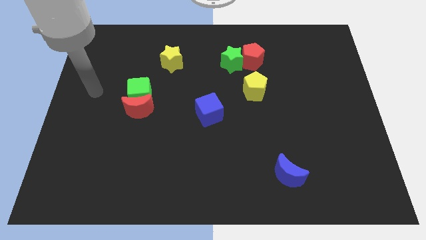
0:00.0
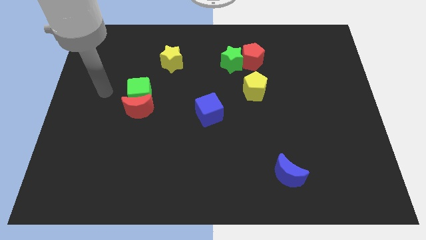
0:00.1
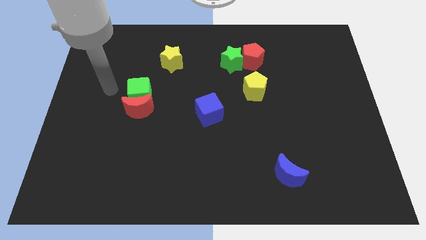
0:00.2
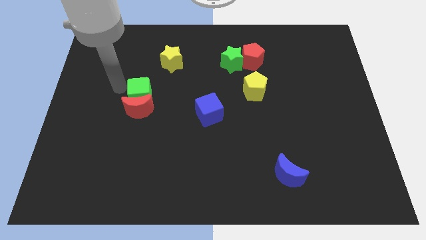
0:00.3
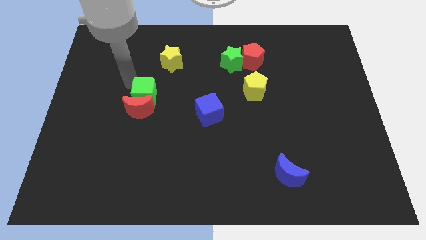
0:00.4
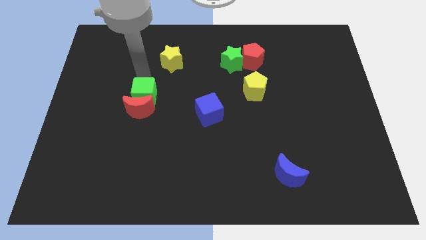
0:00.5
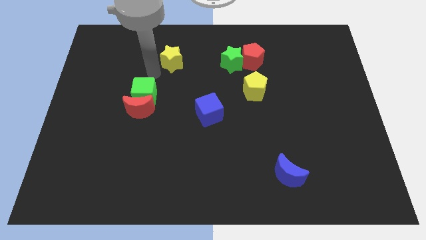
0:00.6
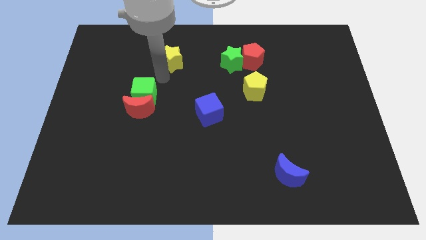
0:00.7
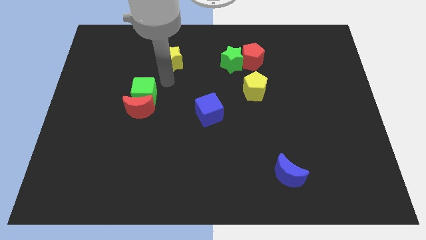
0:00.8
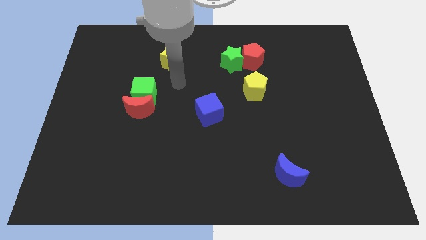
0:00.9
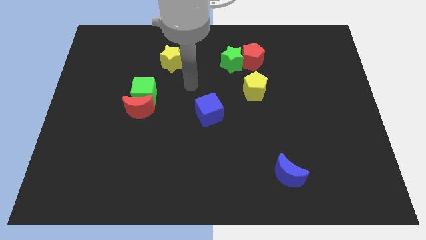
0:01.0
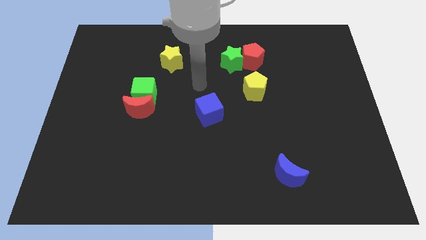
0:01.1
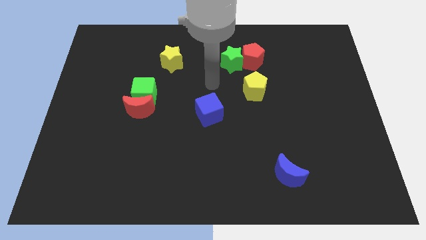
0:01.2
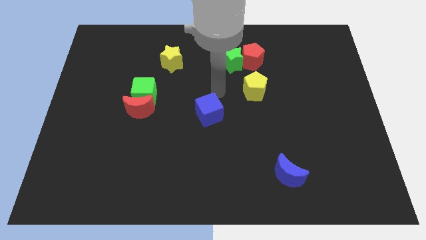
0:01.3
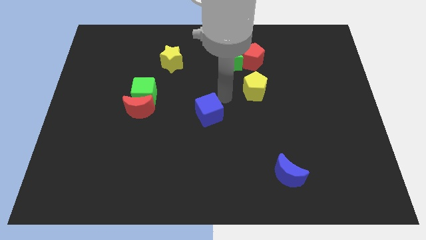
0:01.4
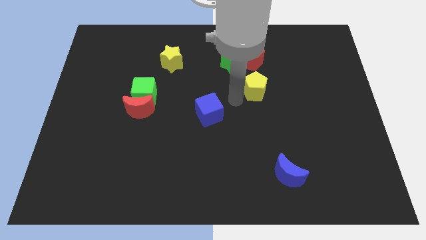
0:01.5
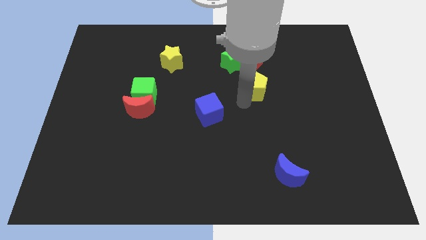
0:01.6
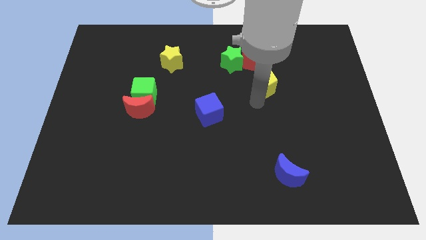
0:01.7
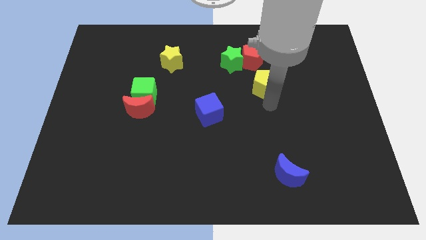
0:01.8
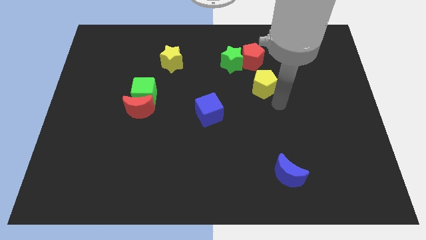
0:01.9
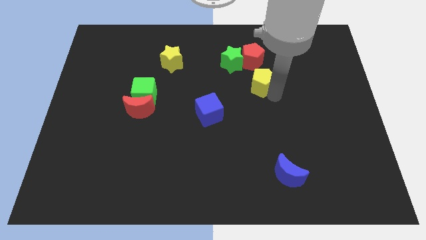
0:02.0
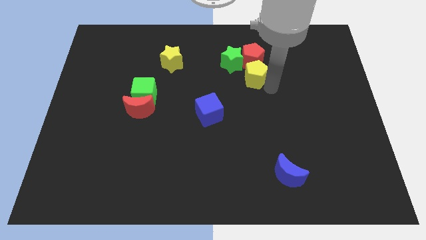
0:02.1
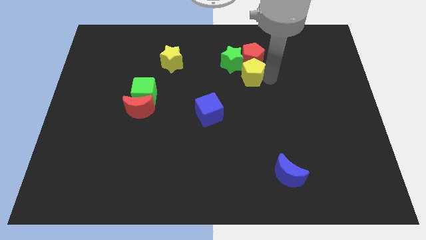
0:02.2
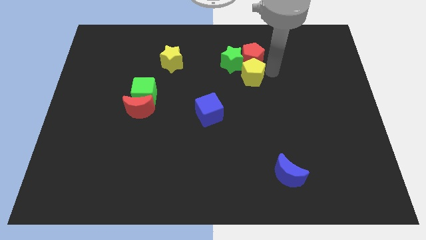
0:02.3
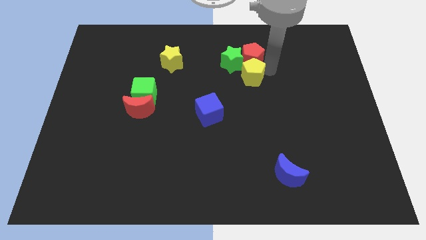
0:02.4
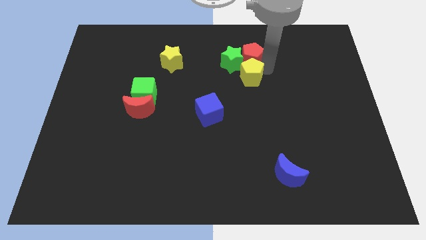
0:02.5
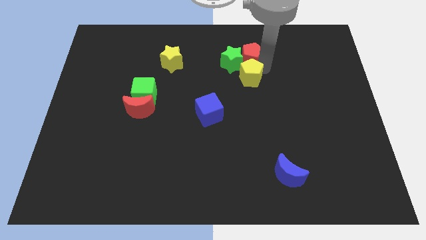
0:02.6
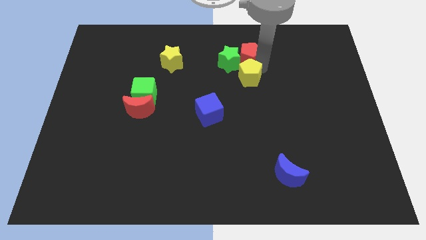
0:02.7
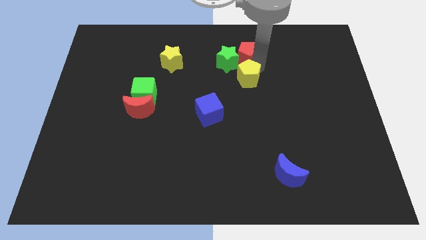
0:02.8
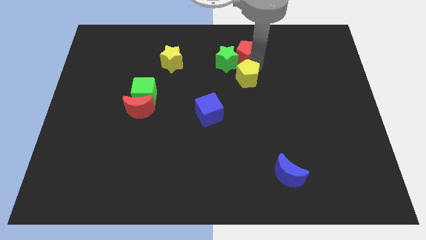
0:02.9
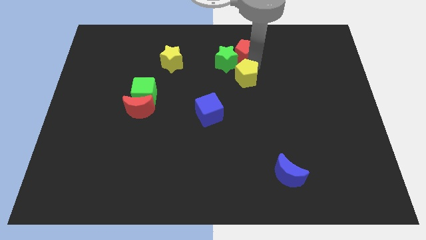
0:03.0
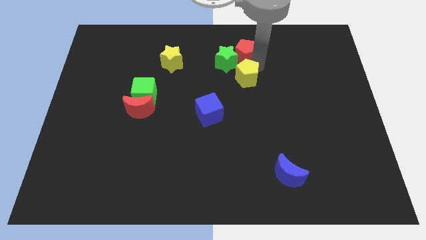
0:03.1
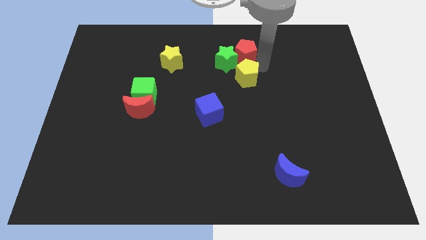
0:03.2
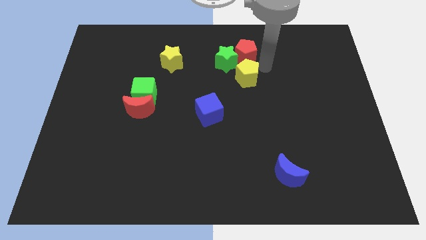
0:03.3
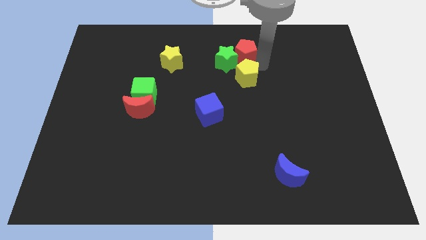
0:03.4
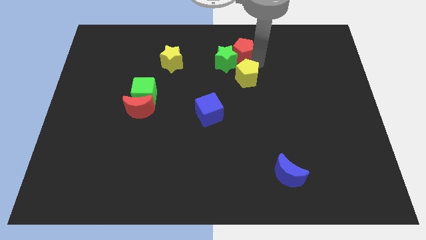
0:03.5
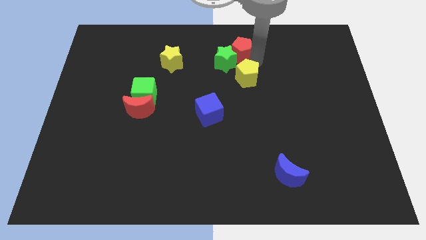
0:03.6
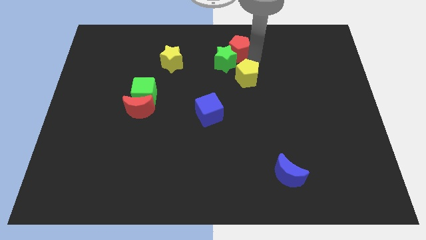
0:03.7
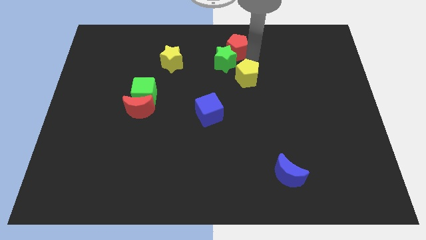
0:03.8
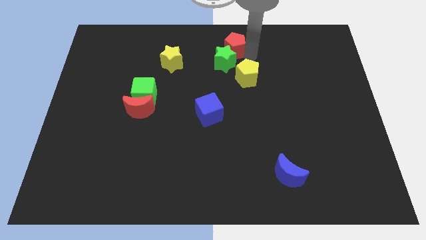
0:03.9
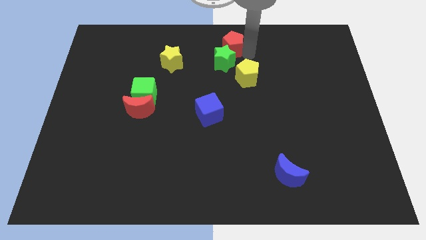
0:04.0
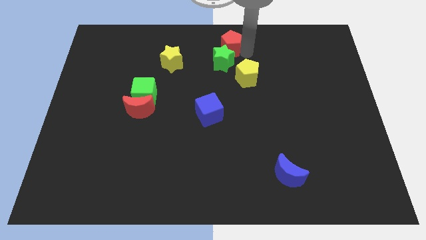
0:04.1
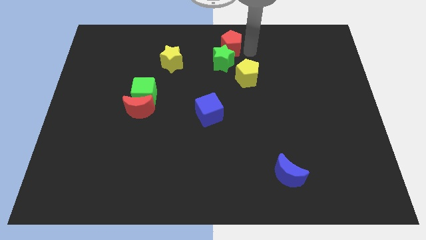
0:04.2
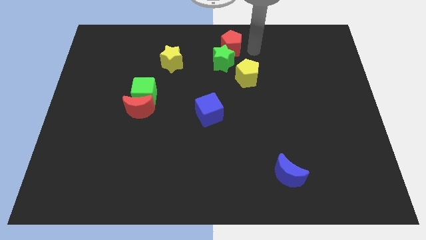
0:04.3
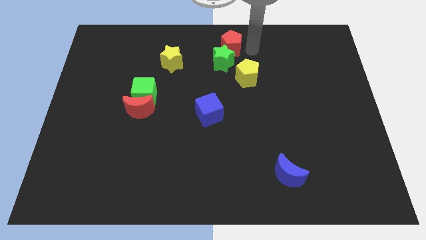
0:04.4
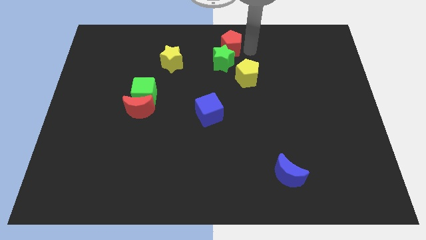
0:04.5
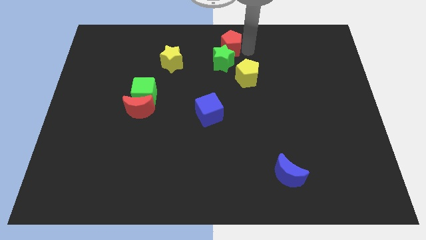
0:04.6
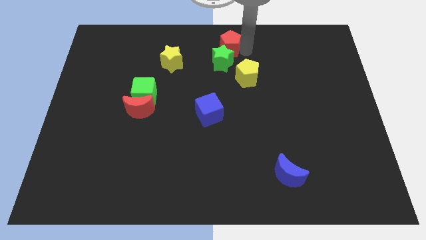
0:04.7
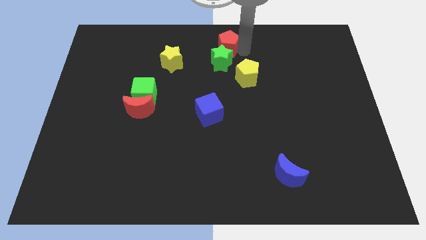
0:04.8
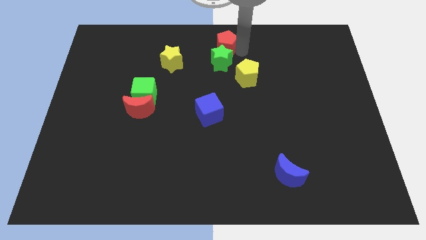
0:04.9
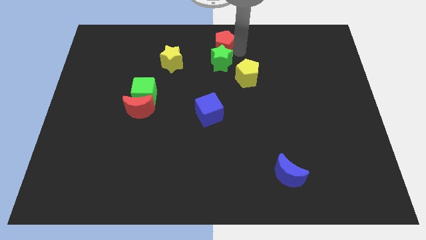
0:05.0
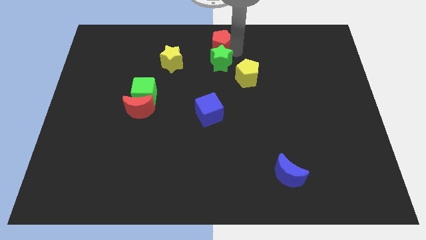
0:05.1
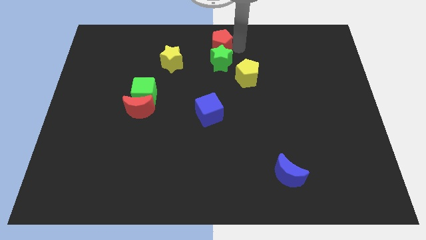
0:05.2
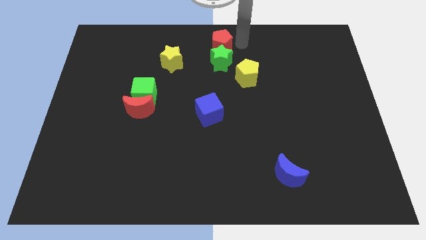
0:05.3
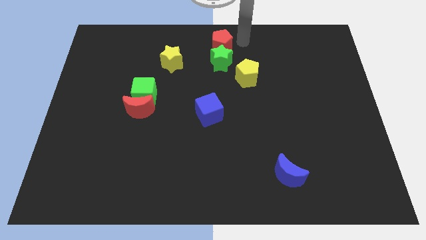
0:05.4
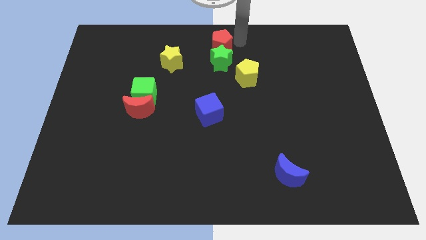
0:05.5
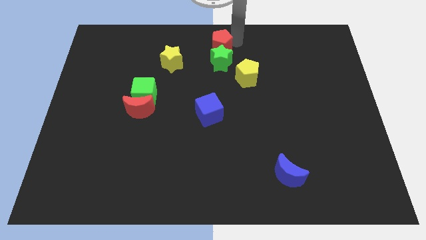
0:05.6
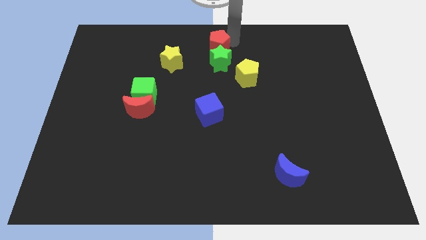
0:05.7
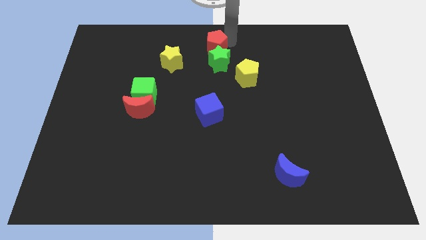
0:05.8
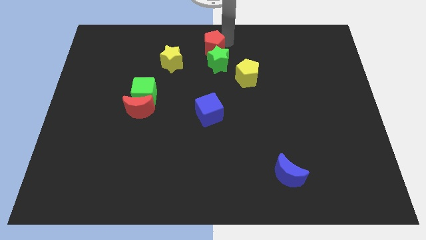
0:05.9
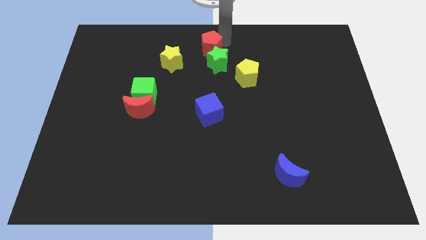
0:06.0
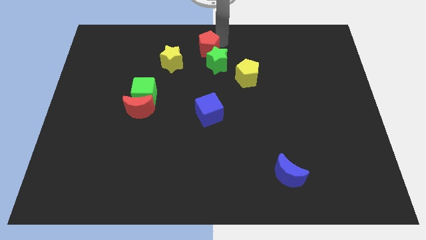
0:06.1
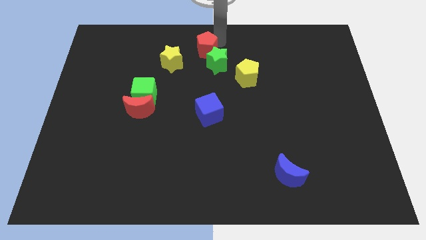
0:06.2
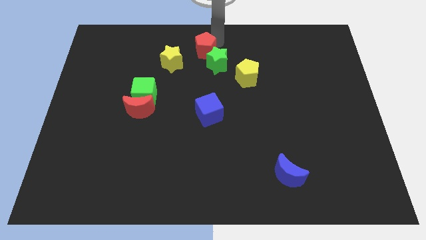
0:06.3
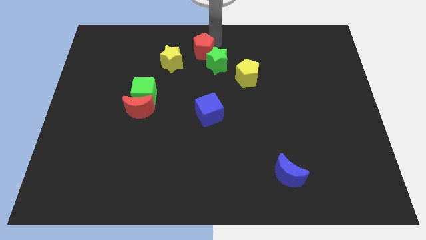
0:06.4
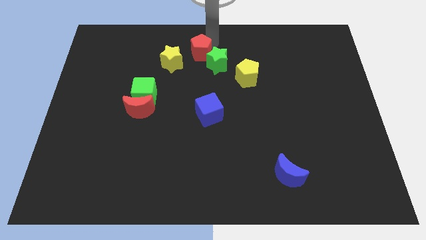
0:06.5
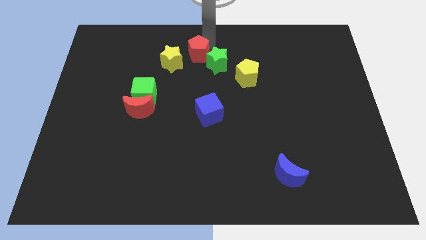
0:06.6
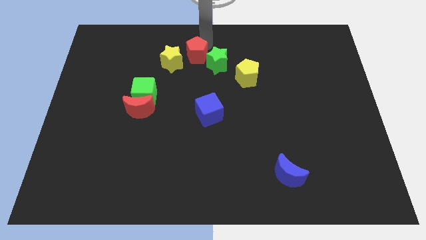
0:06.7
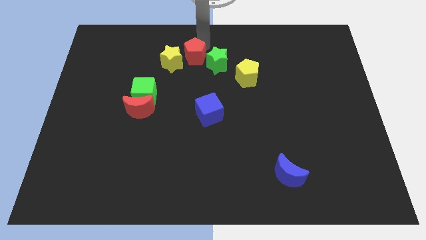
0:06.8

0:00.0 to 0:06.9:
put the red pentagon next to the yellow star

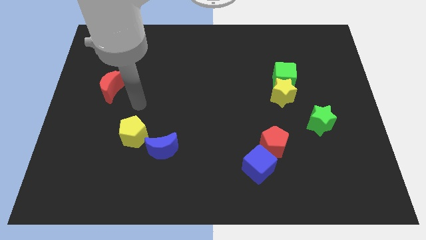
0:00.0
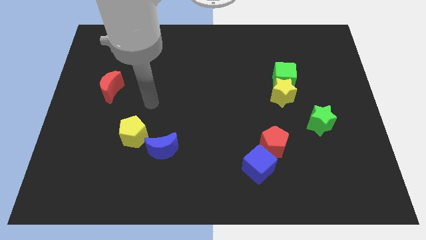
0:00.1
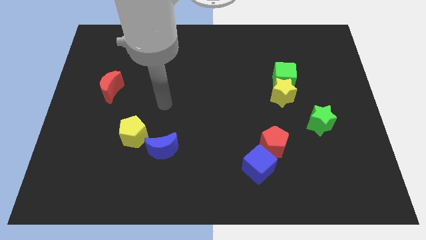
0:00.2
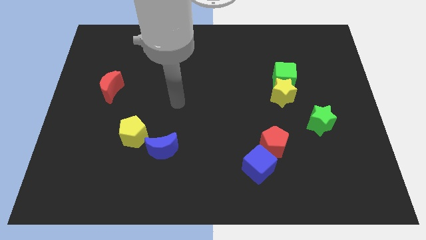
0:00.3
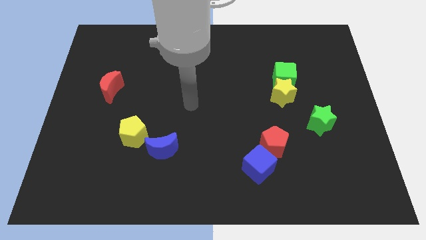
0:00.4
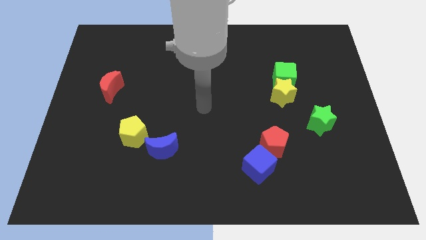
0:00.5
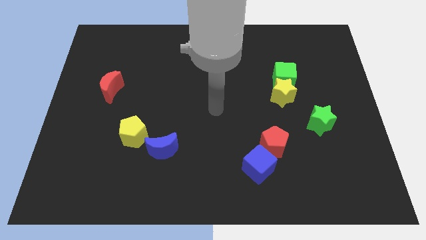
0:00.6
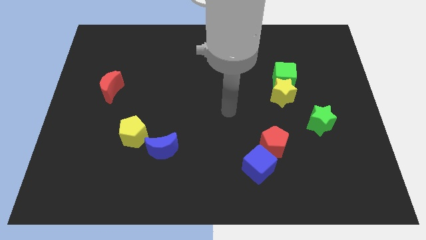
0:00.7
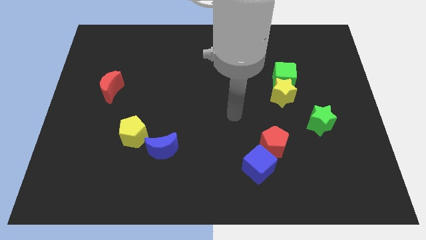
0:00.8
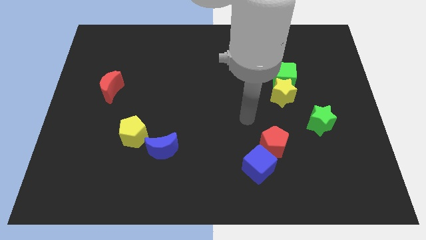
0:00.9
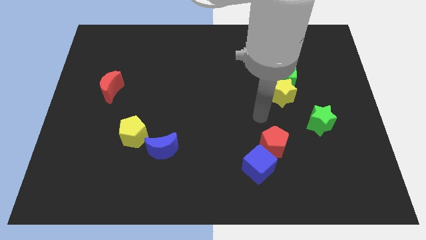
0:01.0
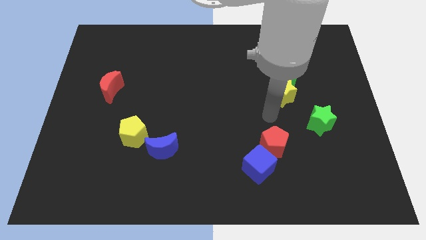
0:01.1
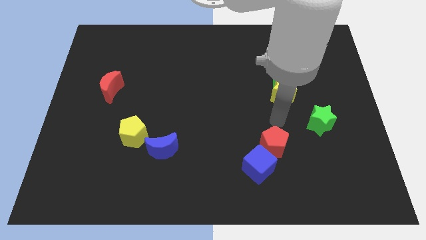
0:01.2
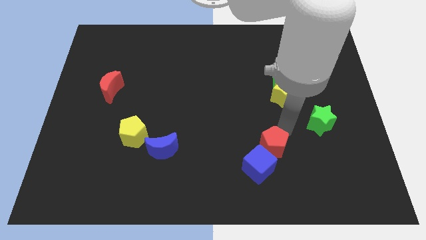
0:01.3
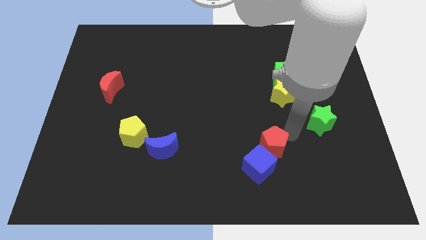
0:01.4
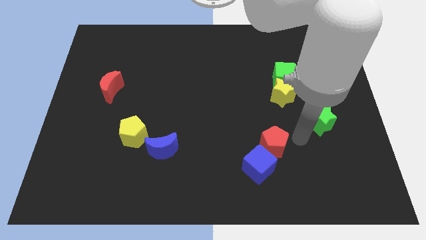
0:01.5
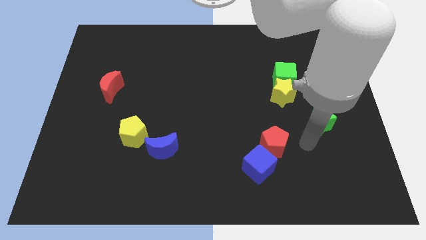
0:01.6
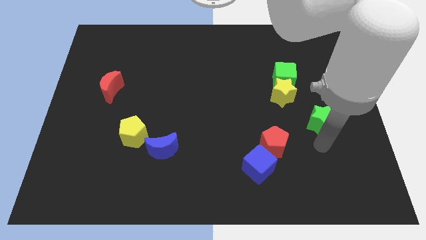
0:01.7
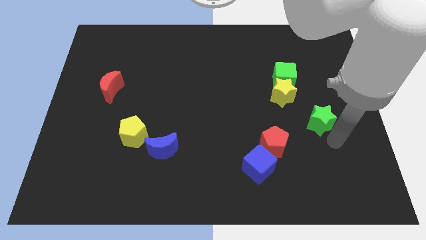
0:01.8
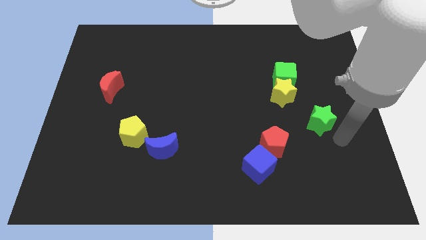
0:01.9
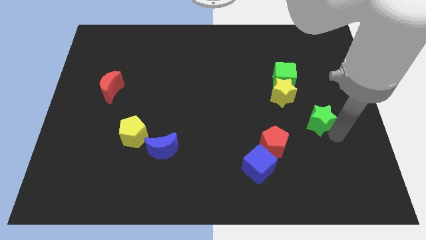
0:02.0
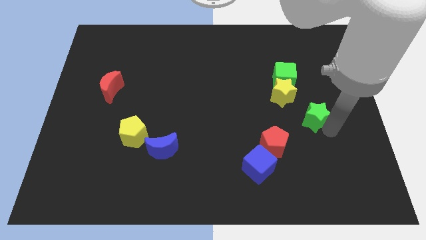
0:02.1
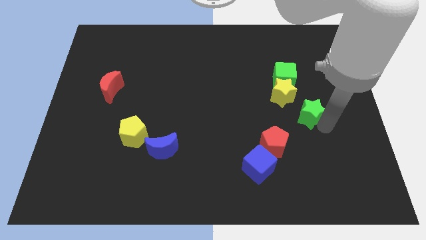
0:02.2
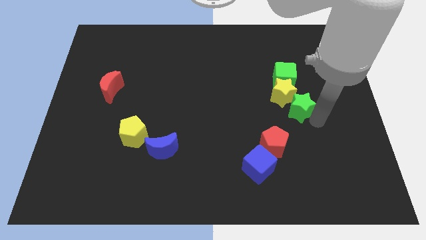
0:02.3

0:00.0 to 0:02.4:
move the green star next to the yellow star
